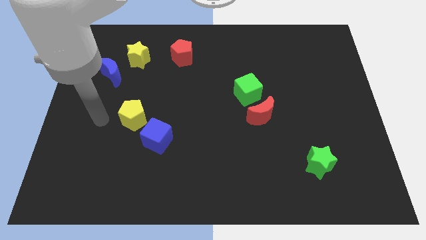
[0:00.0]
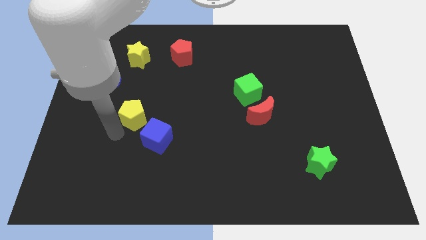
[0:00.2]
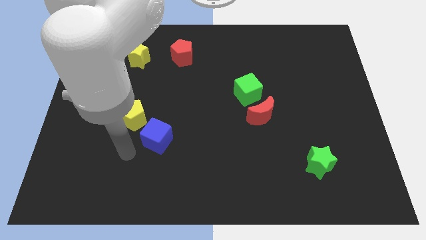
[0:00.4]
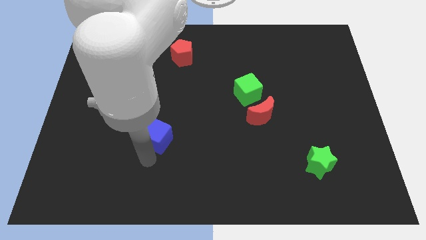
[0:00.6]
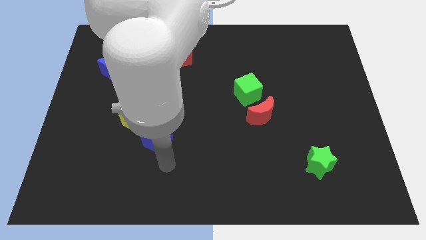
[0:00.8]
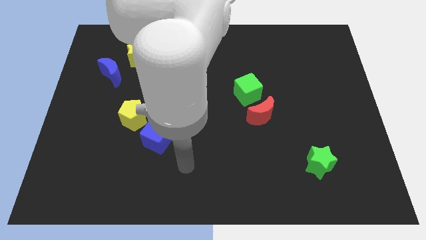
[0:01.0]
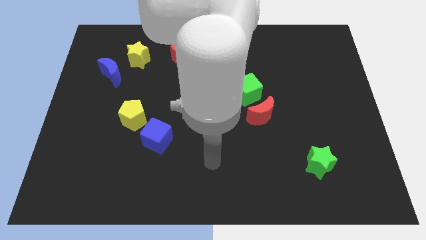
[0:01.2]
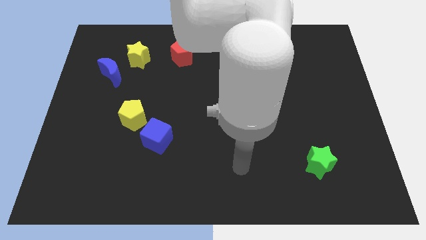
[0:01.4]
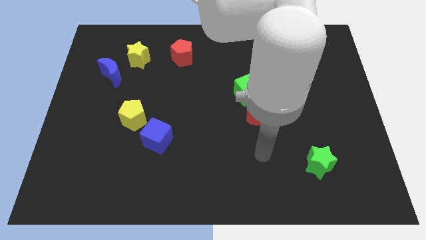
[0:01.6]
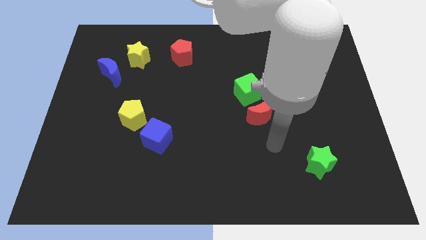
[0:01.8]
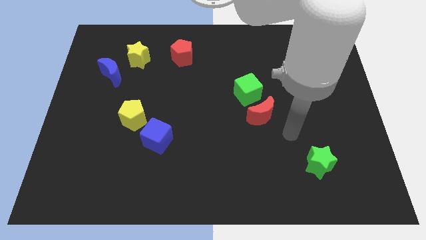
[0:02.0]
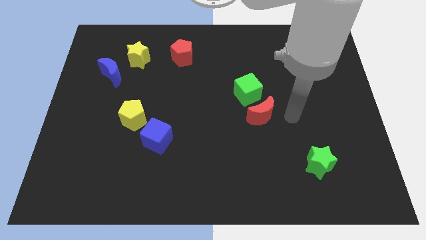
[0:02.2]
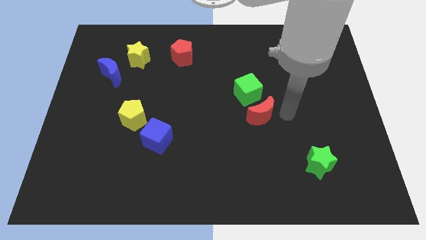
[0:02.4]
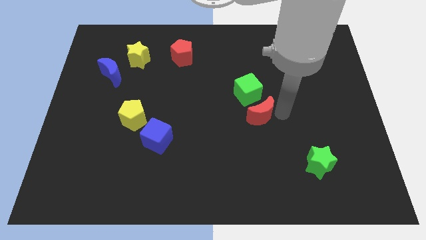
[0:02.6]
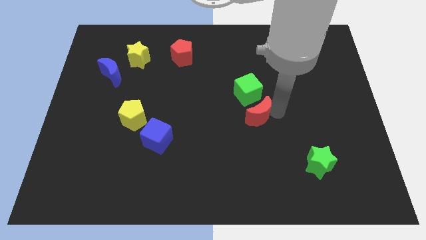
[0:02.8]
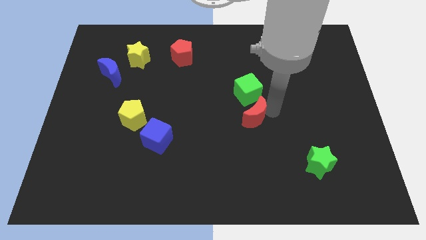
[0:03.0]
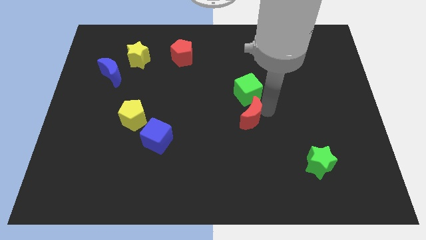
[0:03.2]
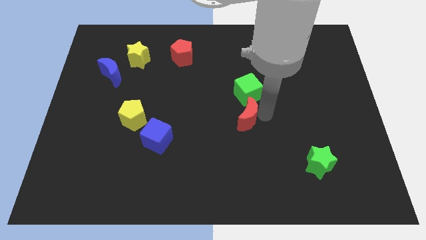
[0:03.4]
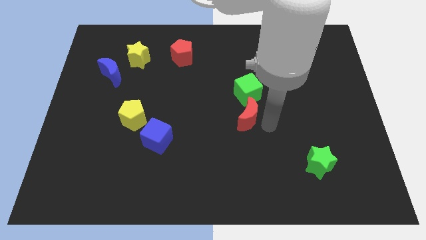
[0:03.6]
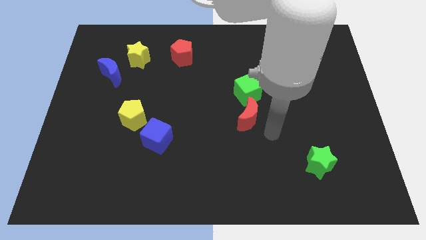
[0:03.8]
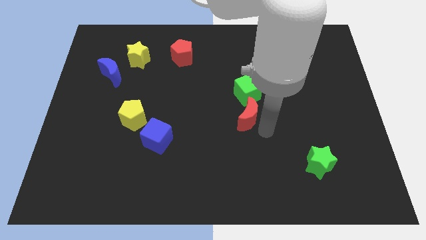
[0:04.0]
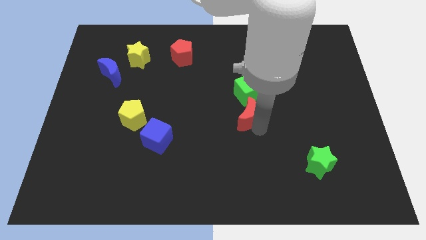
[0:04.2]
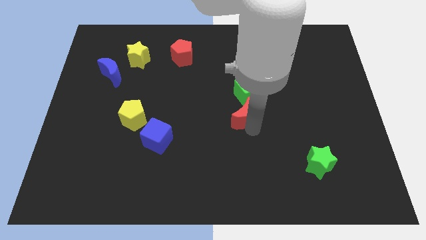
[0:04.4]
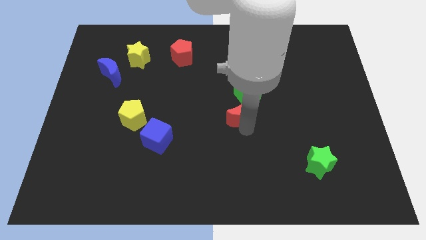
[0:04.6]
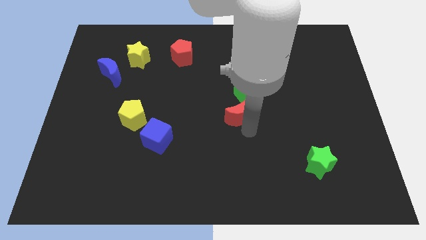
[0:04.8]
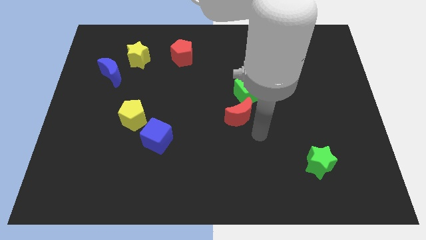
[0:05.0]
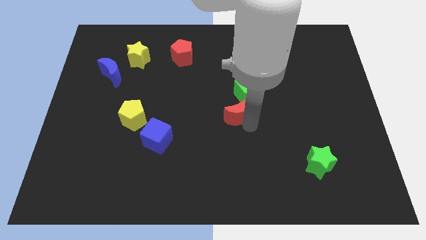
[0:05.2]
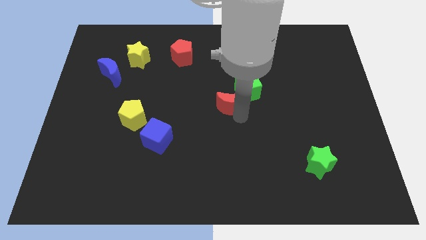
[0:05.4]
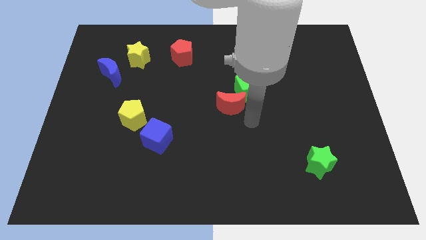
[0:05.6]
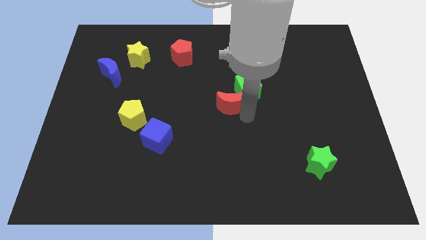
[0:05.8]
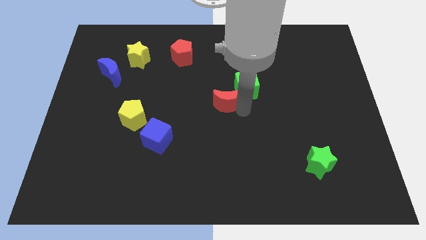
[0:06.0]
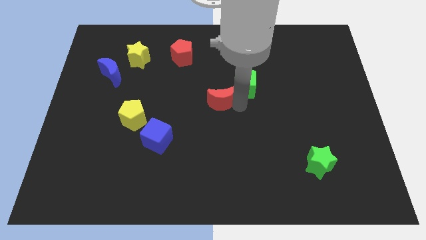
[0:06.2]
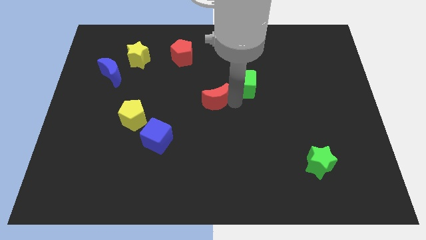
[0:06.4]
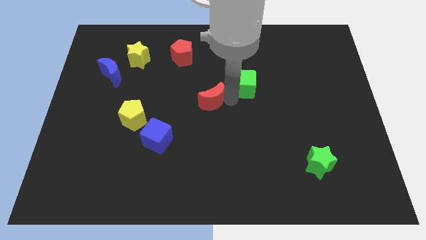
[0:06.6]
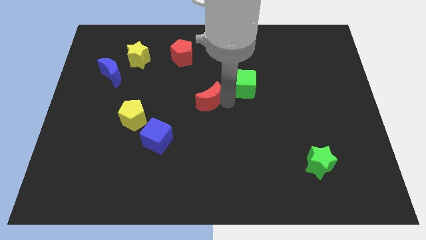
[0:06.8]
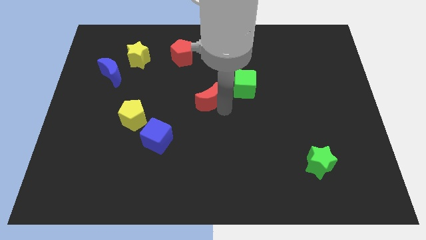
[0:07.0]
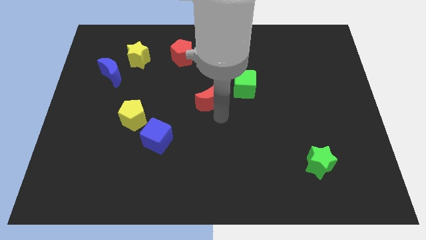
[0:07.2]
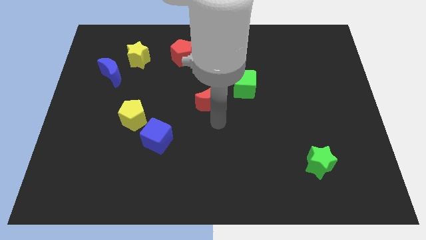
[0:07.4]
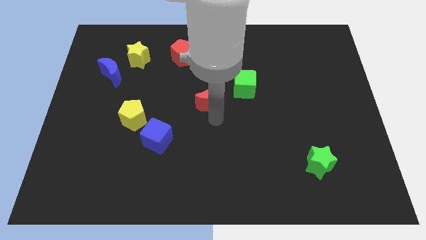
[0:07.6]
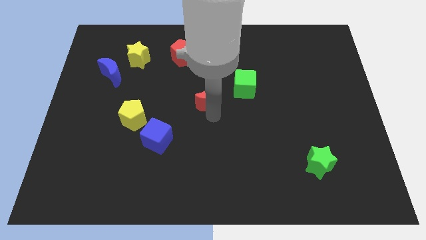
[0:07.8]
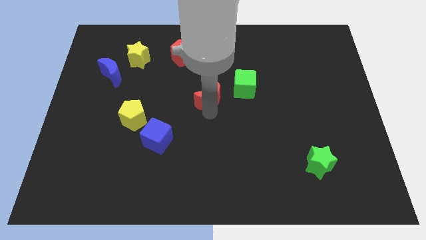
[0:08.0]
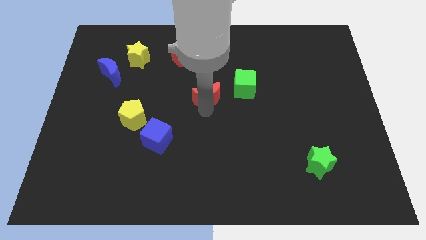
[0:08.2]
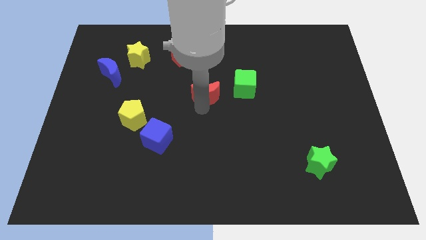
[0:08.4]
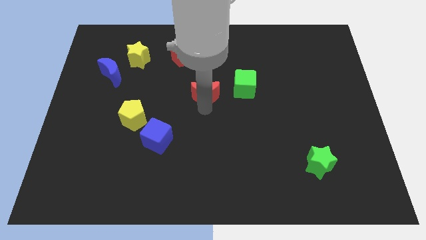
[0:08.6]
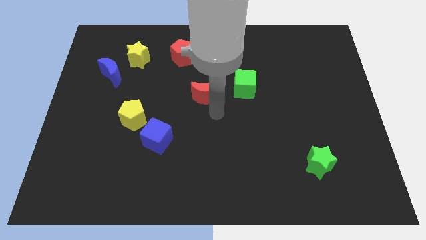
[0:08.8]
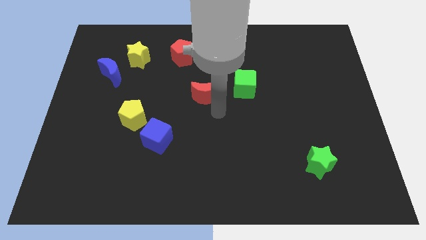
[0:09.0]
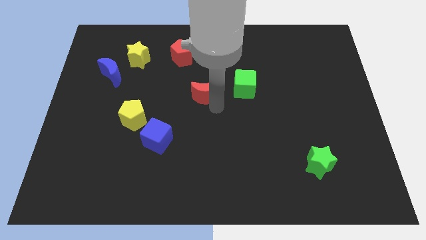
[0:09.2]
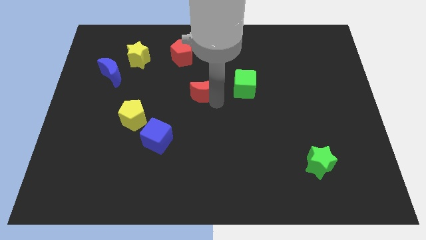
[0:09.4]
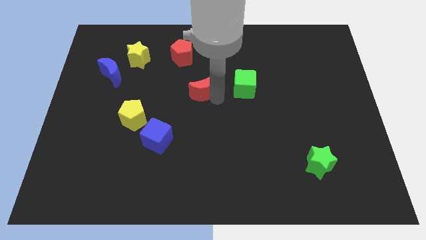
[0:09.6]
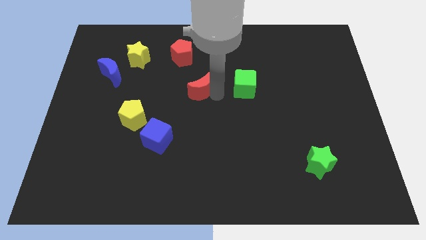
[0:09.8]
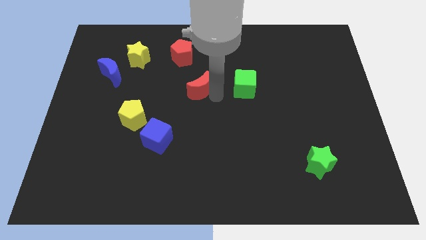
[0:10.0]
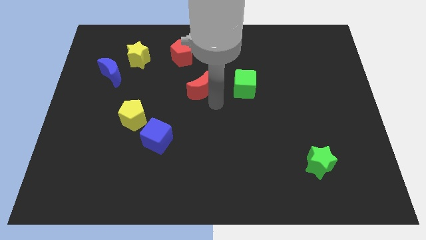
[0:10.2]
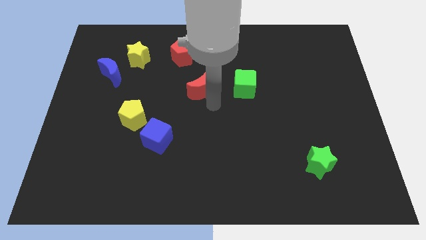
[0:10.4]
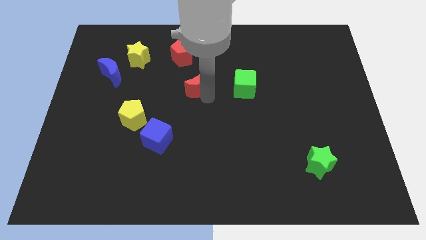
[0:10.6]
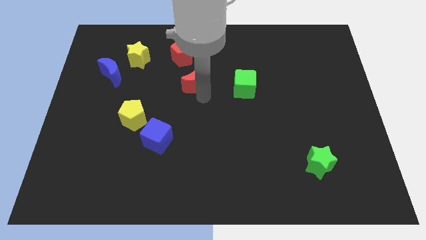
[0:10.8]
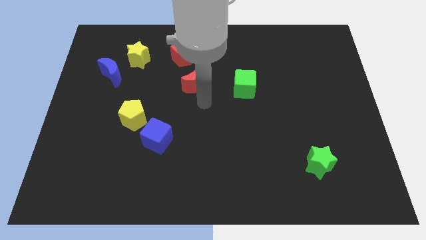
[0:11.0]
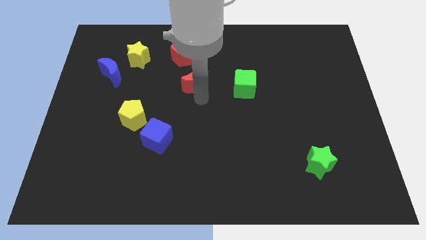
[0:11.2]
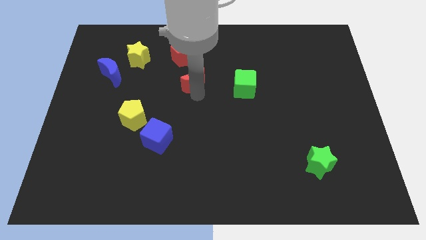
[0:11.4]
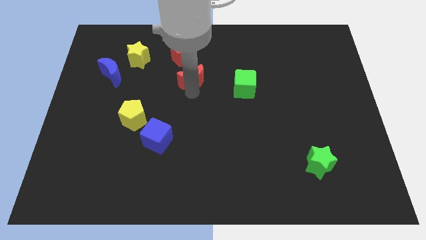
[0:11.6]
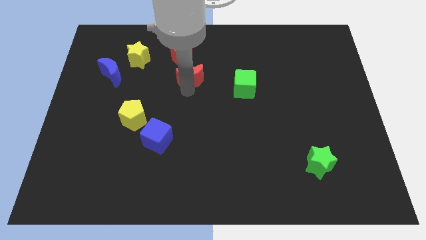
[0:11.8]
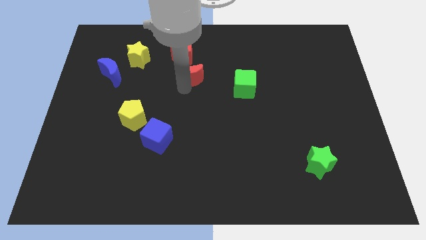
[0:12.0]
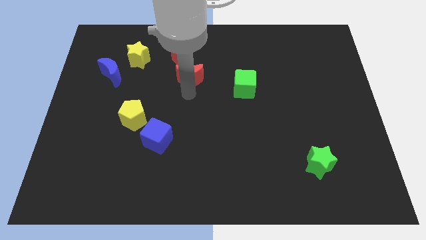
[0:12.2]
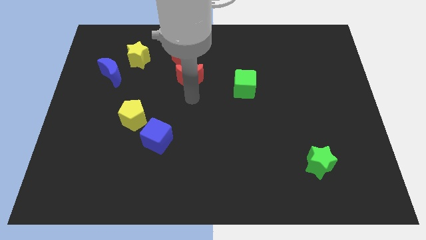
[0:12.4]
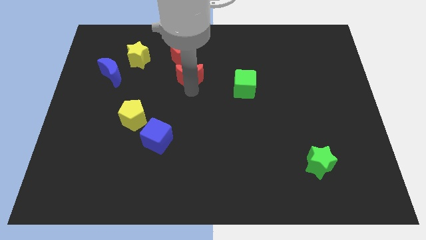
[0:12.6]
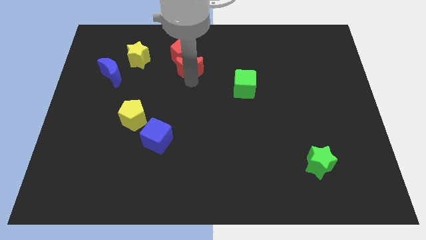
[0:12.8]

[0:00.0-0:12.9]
slide the red moon close to the red pentagon

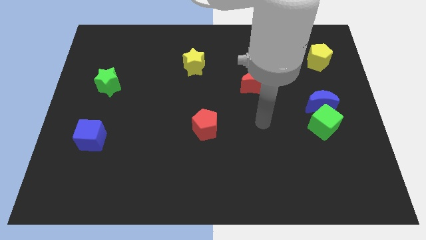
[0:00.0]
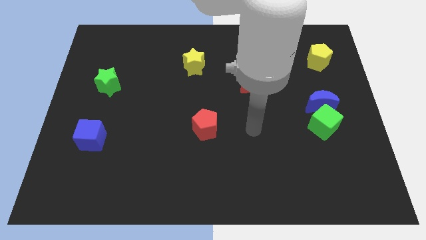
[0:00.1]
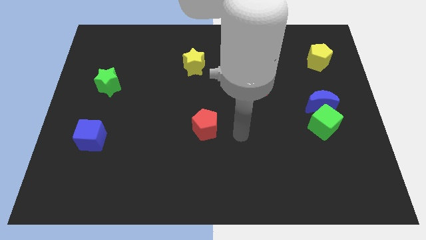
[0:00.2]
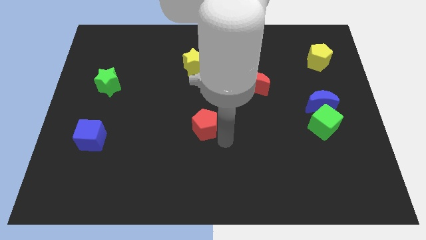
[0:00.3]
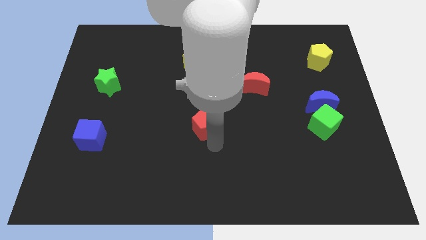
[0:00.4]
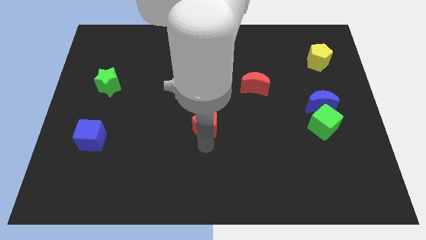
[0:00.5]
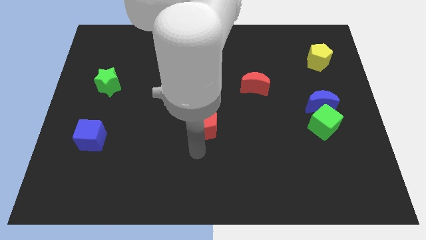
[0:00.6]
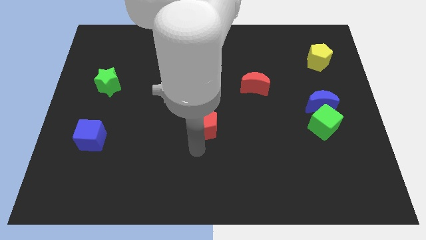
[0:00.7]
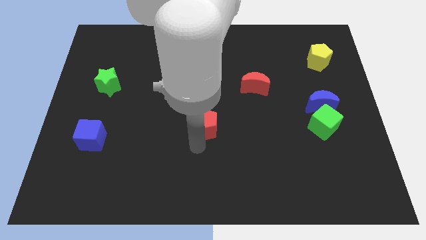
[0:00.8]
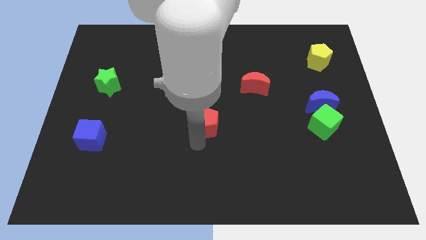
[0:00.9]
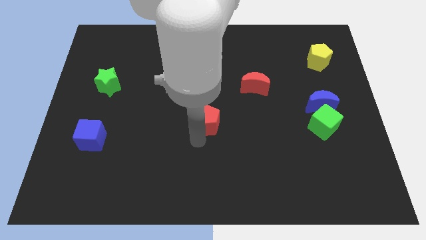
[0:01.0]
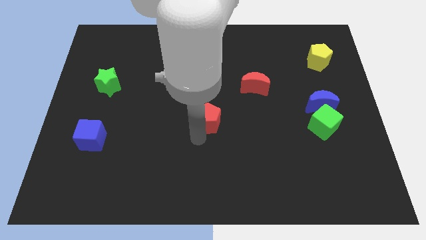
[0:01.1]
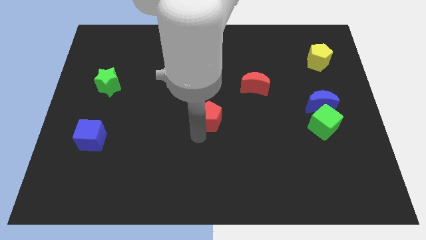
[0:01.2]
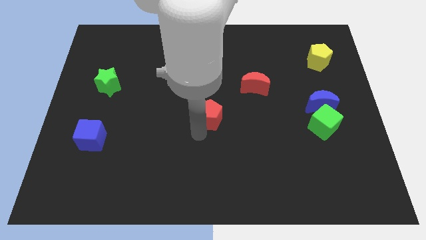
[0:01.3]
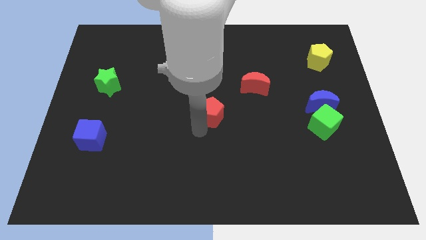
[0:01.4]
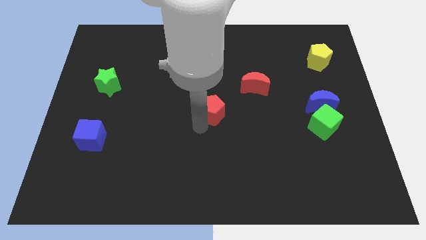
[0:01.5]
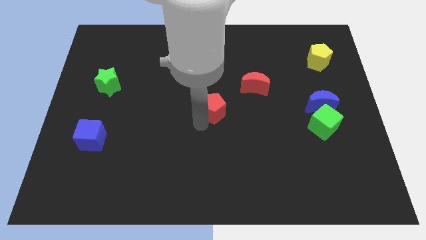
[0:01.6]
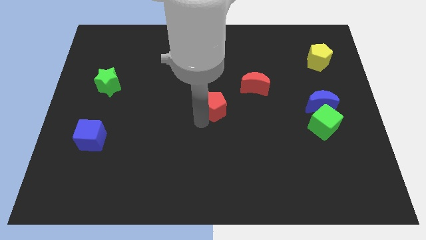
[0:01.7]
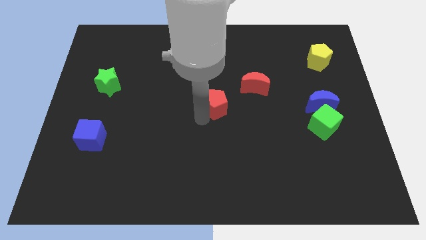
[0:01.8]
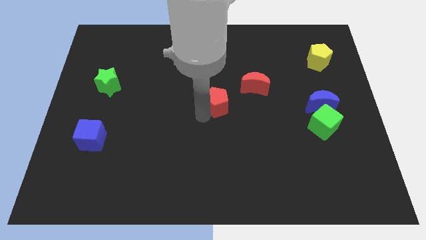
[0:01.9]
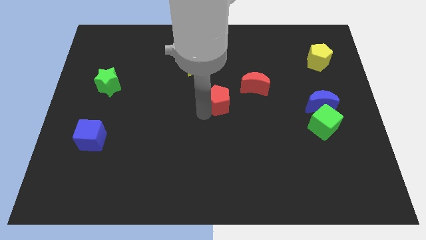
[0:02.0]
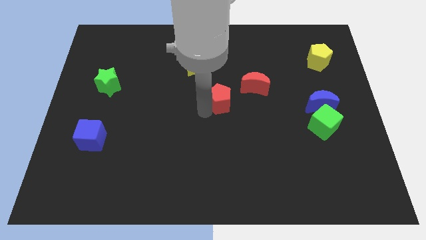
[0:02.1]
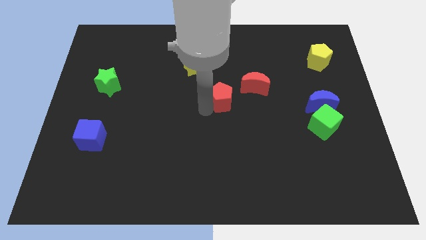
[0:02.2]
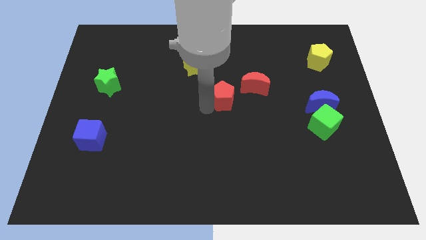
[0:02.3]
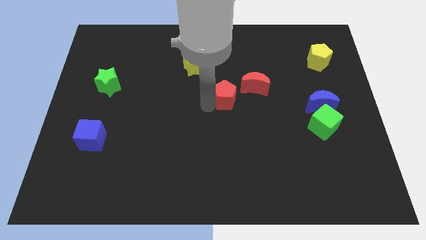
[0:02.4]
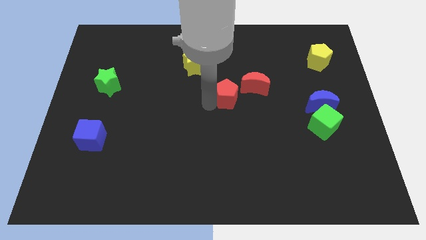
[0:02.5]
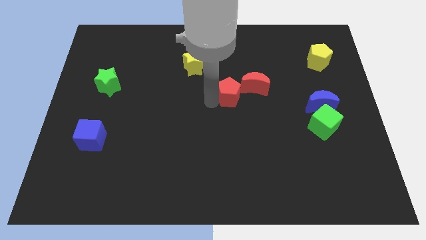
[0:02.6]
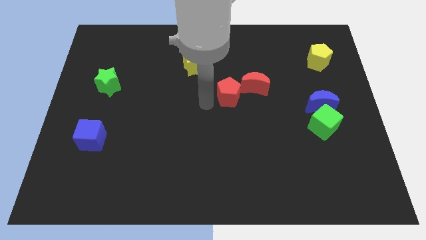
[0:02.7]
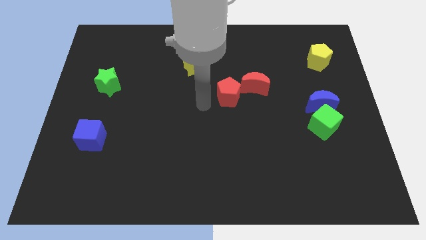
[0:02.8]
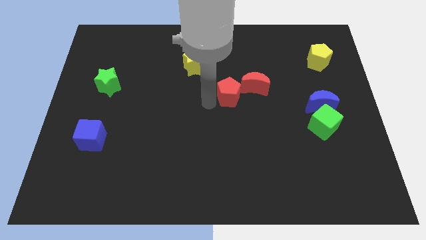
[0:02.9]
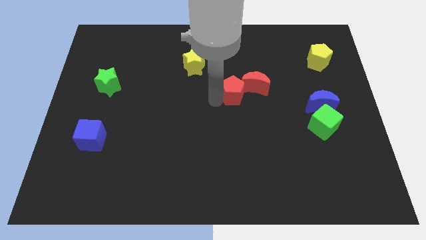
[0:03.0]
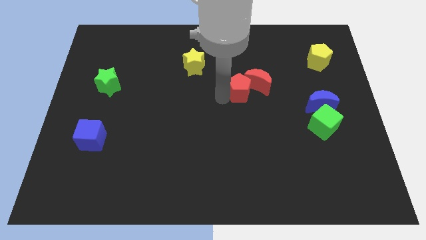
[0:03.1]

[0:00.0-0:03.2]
move the red pentagon to the red moon
